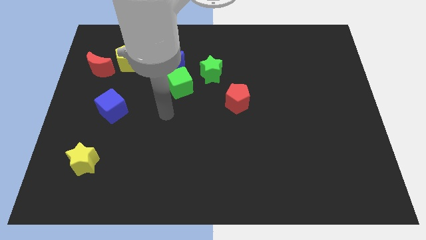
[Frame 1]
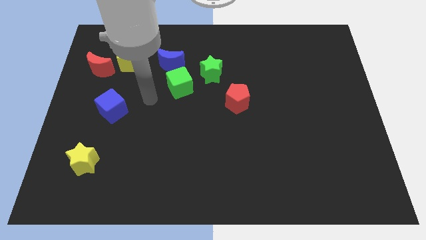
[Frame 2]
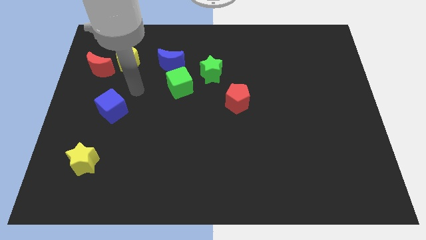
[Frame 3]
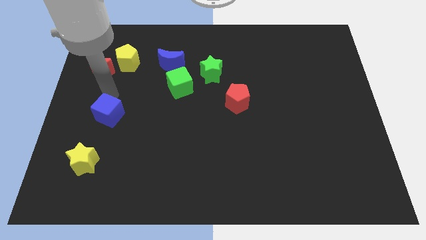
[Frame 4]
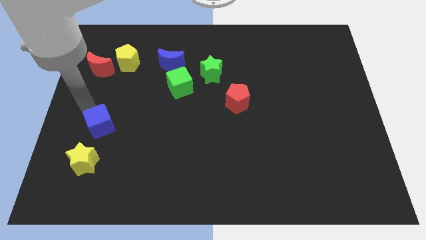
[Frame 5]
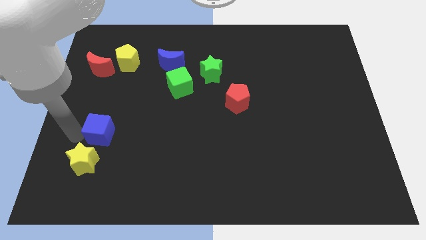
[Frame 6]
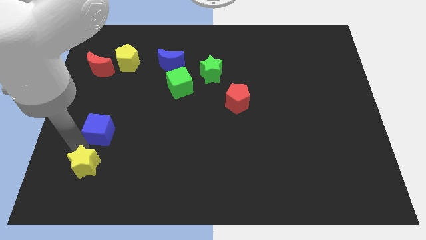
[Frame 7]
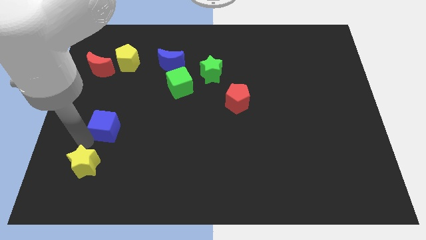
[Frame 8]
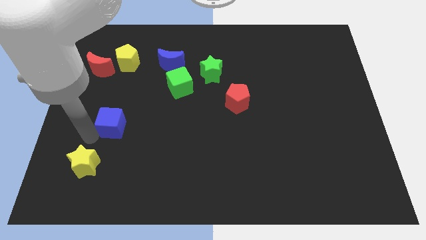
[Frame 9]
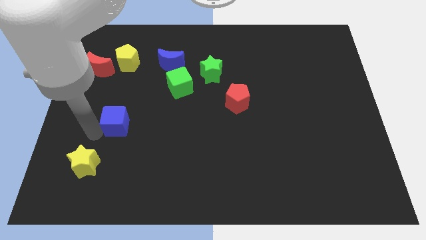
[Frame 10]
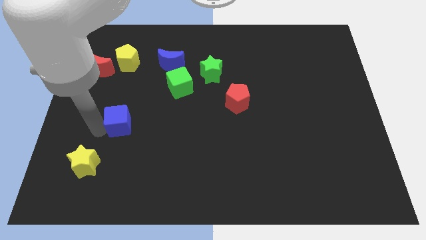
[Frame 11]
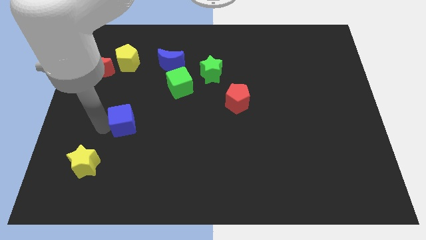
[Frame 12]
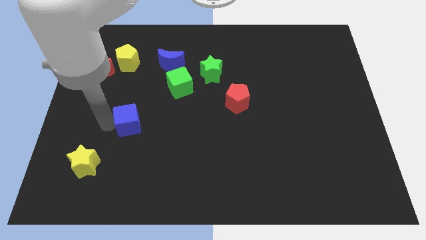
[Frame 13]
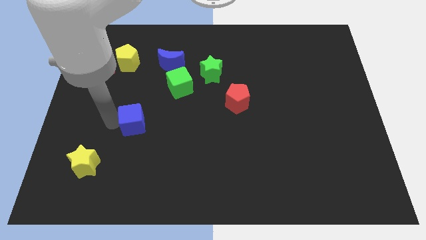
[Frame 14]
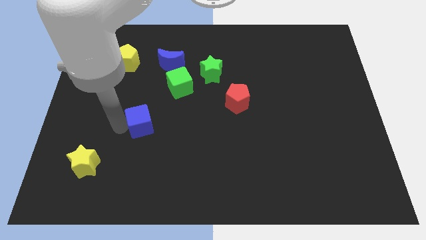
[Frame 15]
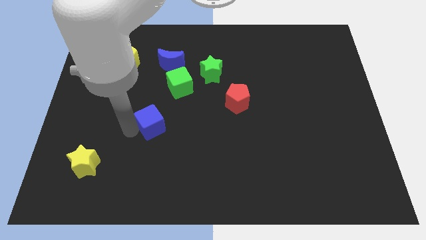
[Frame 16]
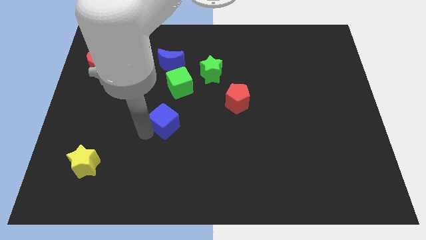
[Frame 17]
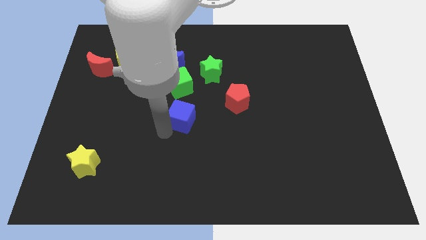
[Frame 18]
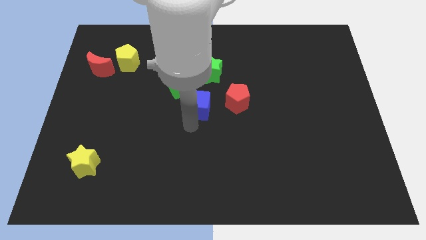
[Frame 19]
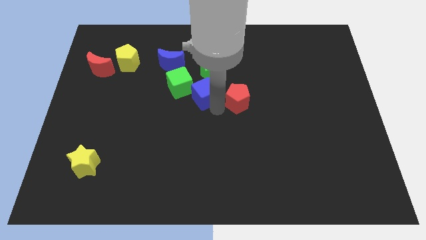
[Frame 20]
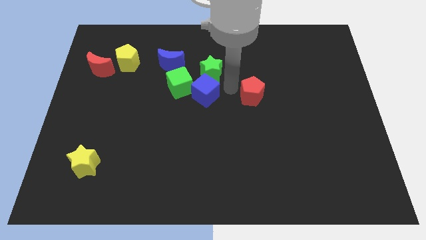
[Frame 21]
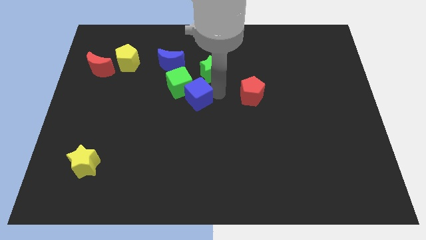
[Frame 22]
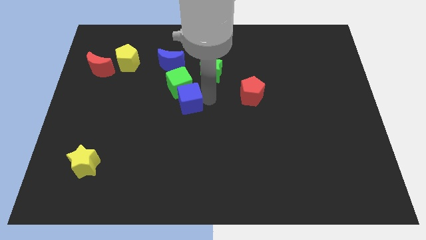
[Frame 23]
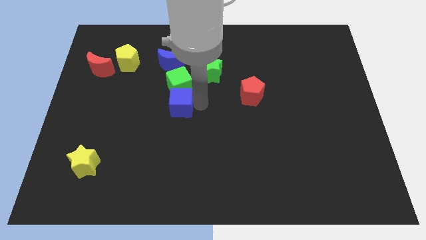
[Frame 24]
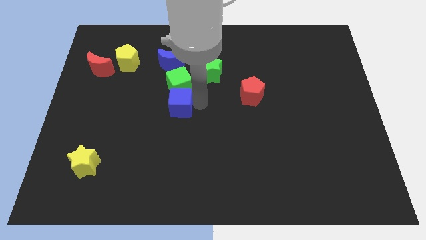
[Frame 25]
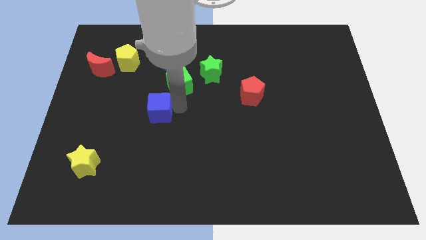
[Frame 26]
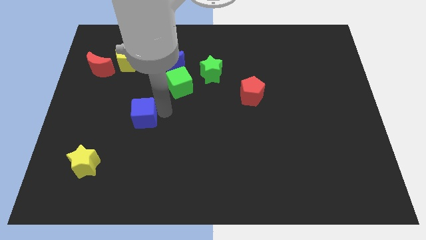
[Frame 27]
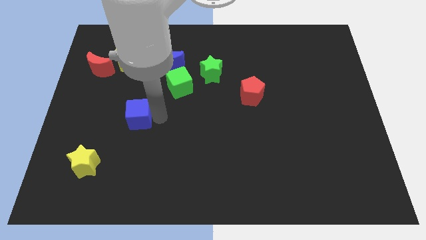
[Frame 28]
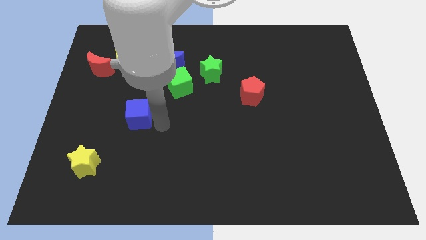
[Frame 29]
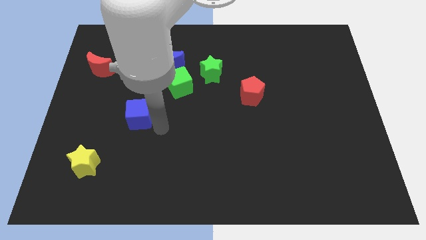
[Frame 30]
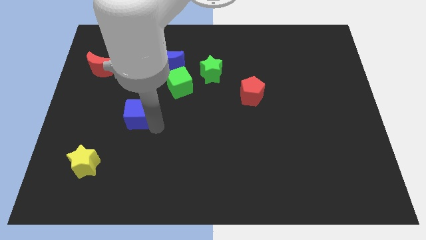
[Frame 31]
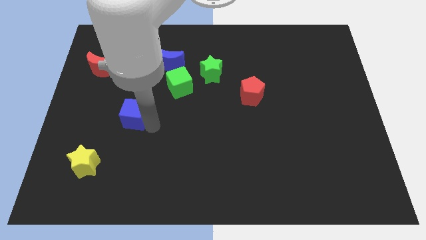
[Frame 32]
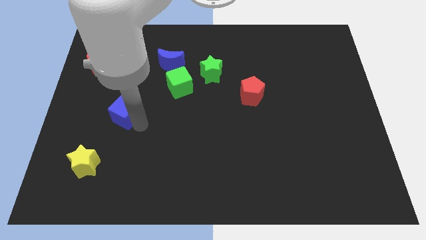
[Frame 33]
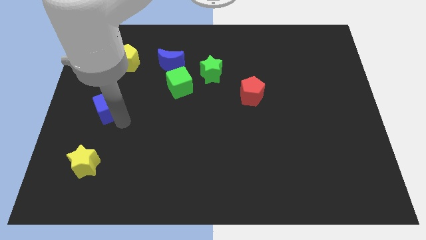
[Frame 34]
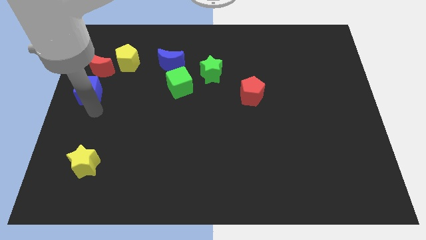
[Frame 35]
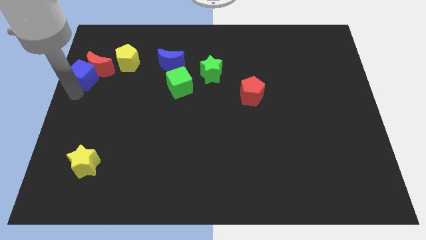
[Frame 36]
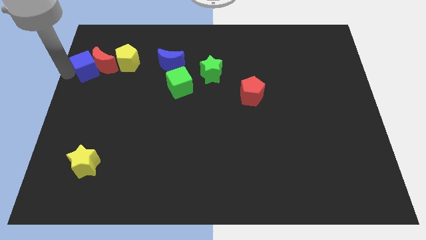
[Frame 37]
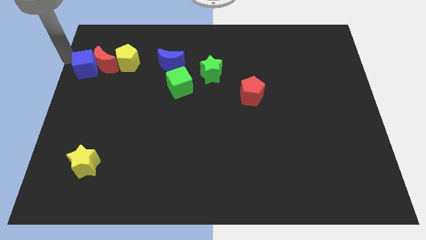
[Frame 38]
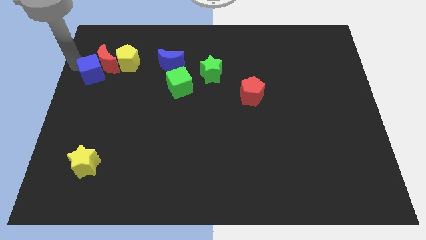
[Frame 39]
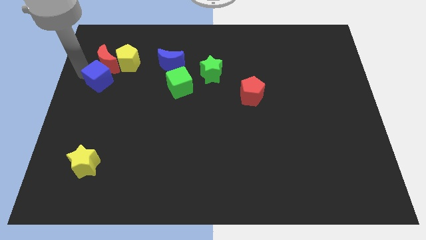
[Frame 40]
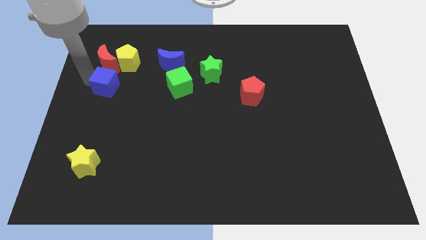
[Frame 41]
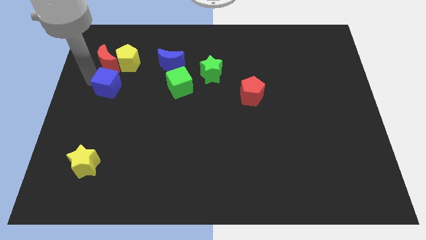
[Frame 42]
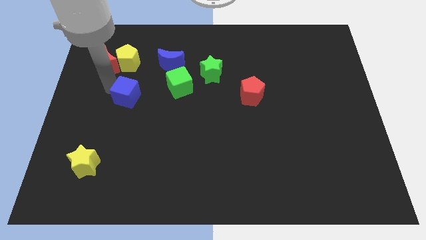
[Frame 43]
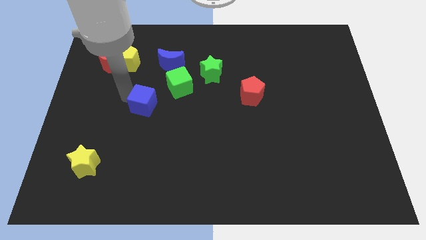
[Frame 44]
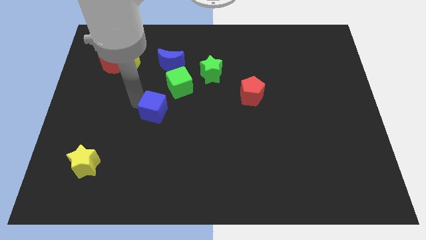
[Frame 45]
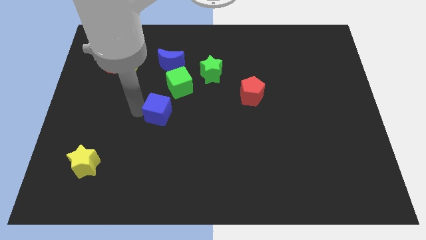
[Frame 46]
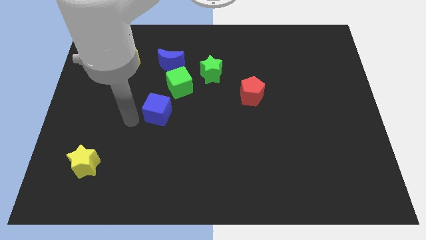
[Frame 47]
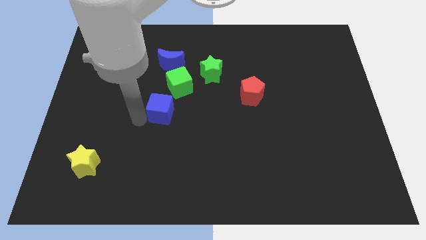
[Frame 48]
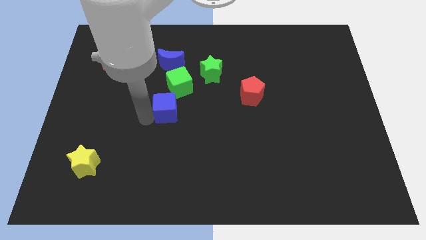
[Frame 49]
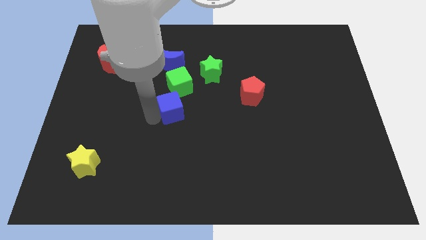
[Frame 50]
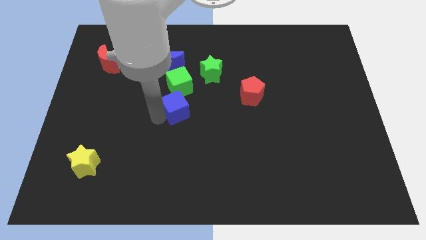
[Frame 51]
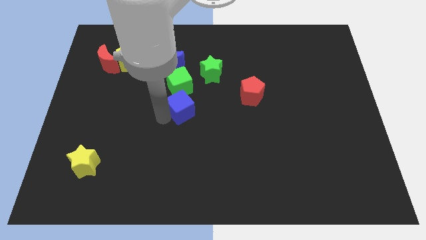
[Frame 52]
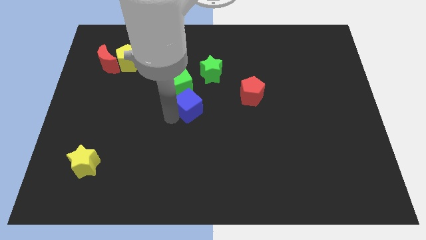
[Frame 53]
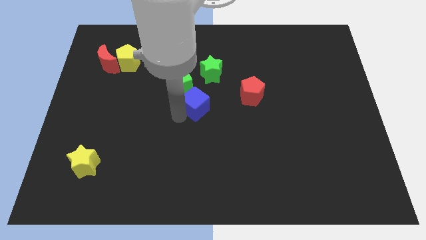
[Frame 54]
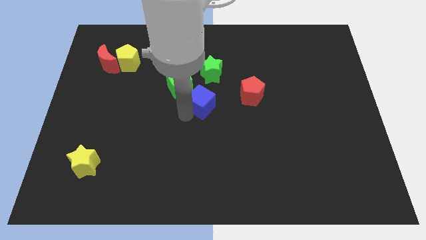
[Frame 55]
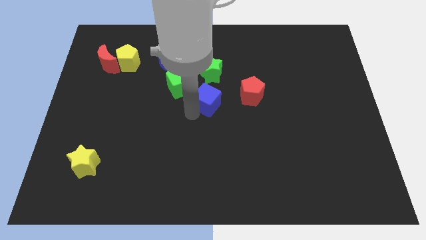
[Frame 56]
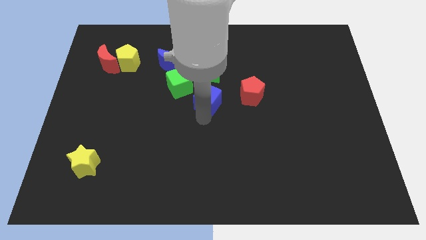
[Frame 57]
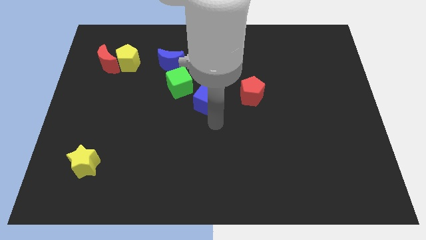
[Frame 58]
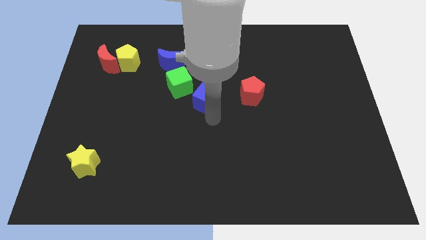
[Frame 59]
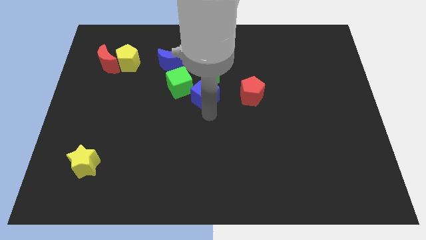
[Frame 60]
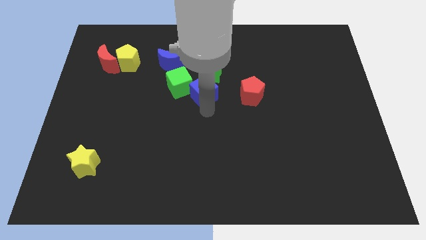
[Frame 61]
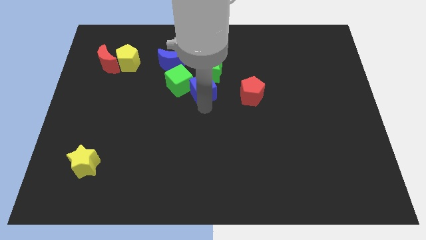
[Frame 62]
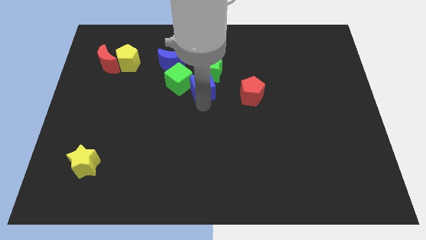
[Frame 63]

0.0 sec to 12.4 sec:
push the blue cube towards the green star

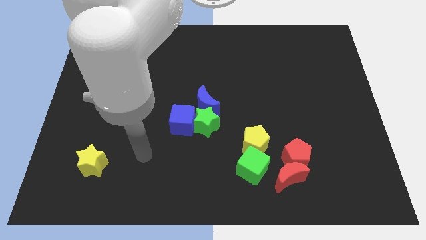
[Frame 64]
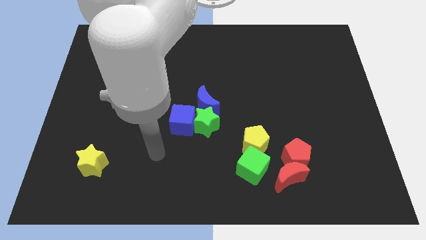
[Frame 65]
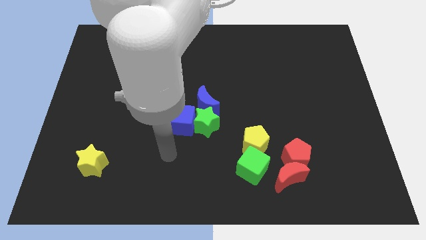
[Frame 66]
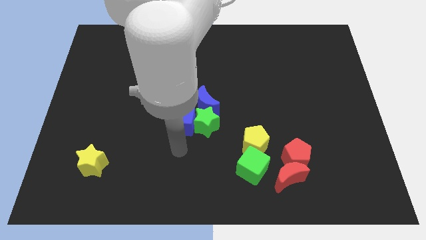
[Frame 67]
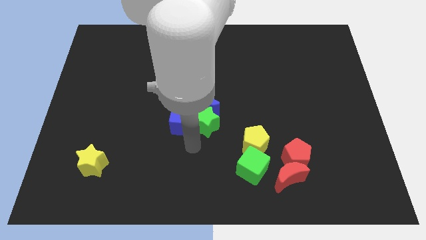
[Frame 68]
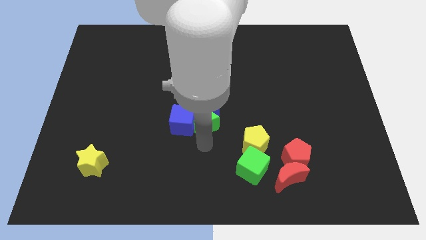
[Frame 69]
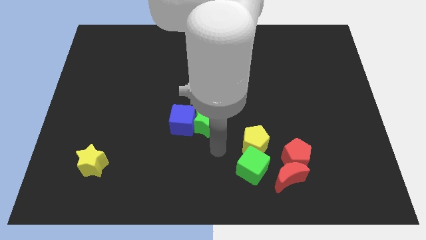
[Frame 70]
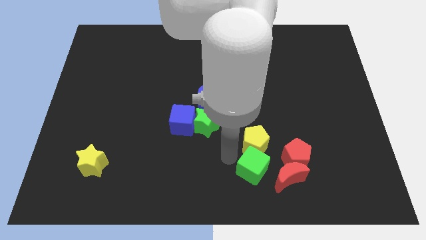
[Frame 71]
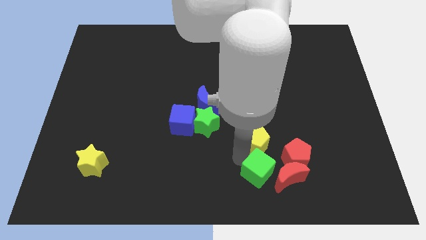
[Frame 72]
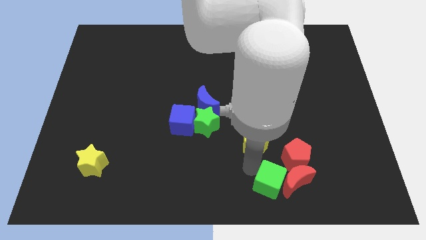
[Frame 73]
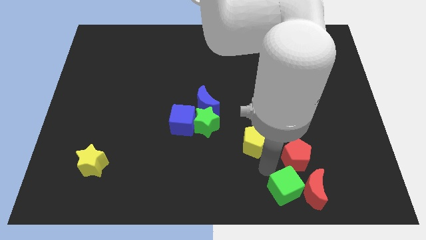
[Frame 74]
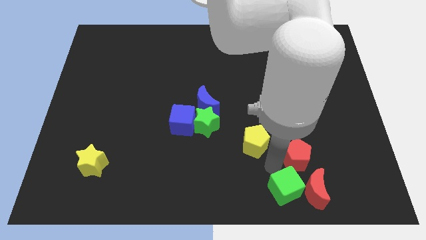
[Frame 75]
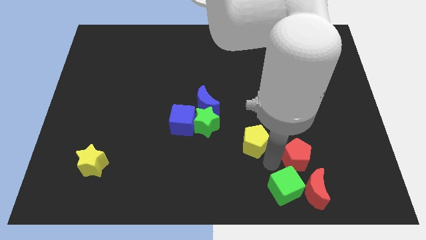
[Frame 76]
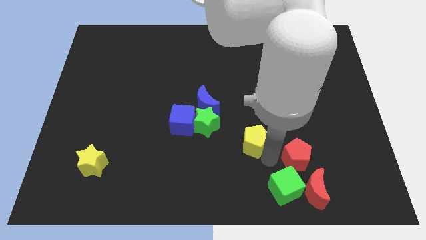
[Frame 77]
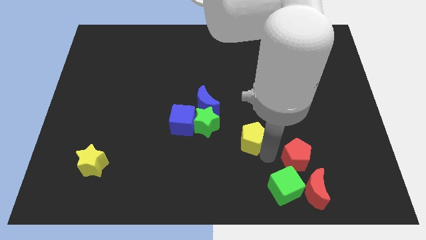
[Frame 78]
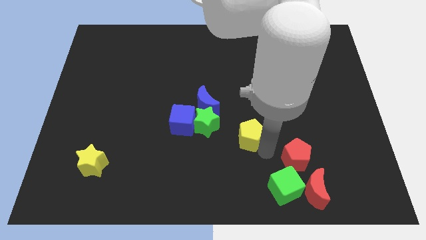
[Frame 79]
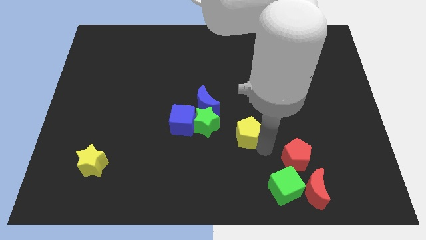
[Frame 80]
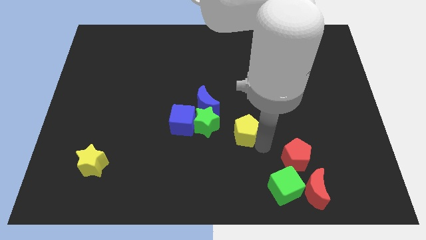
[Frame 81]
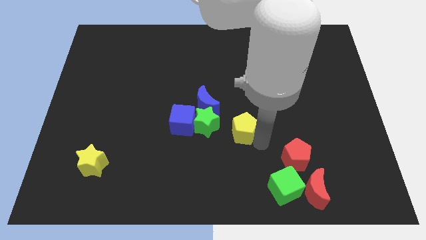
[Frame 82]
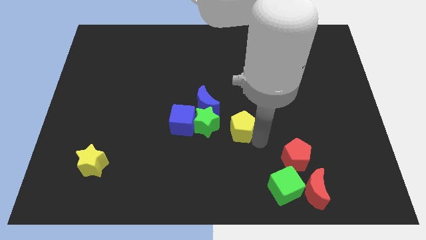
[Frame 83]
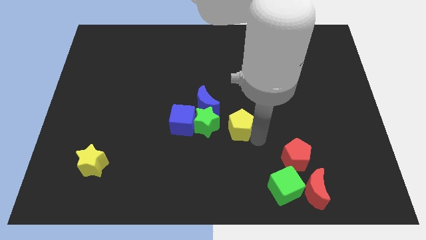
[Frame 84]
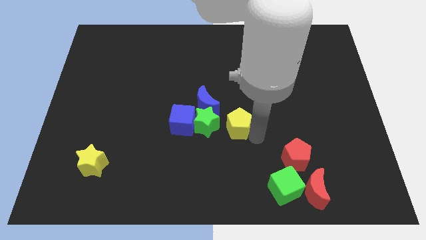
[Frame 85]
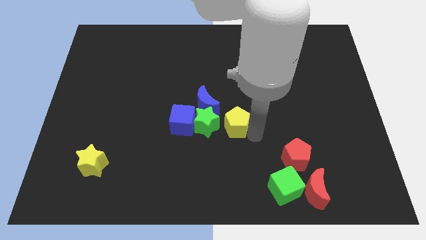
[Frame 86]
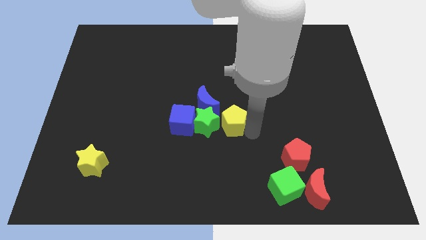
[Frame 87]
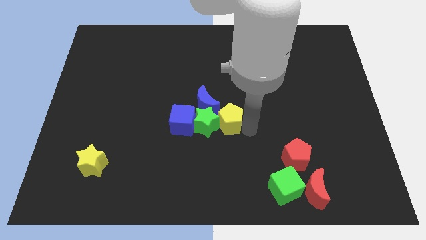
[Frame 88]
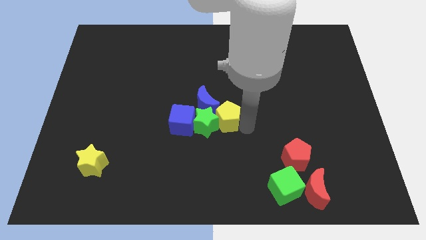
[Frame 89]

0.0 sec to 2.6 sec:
move the yellow pentagon towards the blue moon
